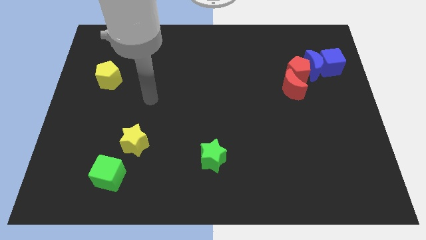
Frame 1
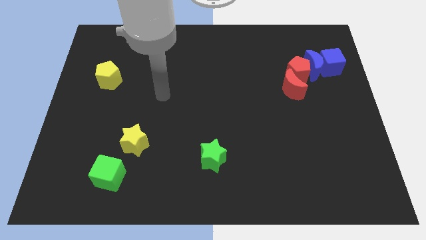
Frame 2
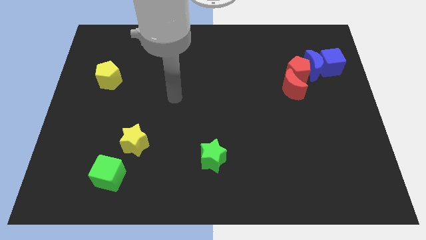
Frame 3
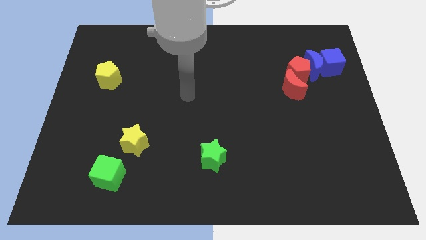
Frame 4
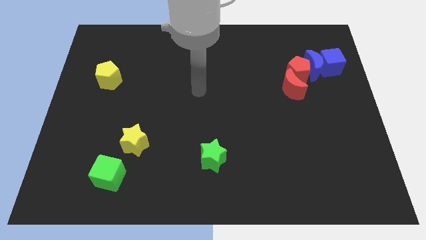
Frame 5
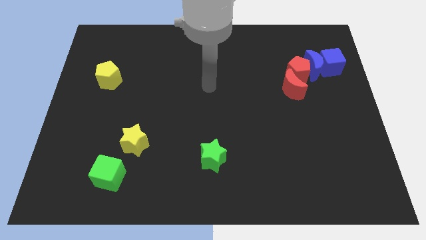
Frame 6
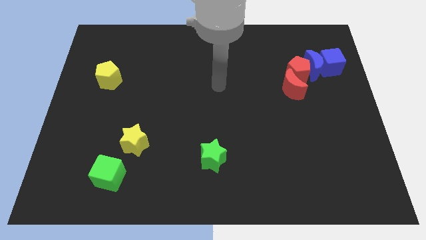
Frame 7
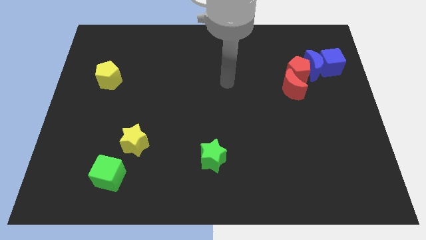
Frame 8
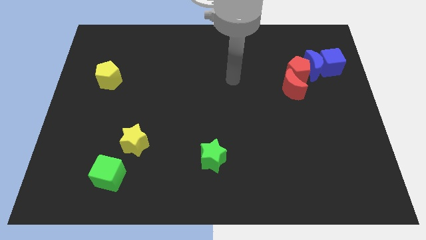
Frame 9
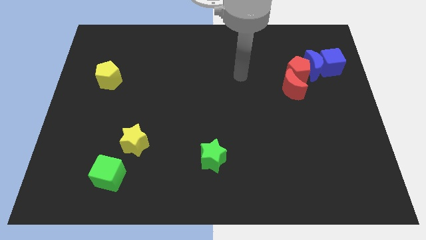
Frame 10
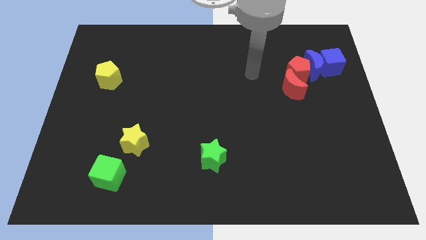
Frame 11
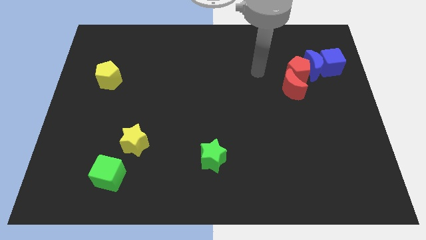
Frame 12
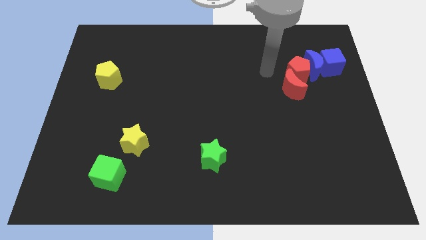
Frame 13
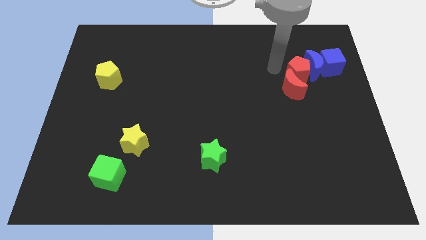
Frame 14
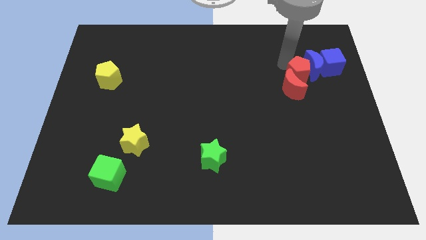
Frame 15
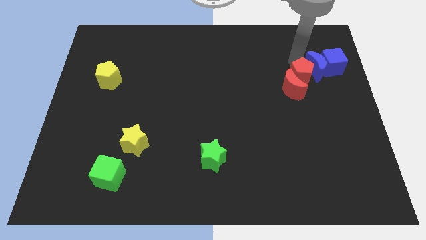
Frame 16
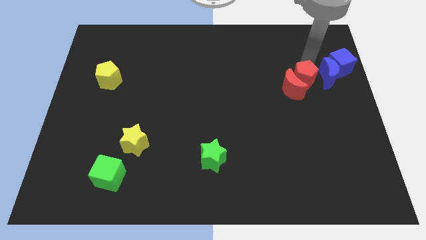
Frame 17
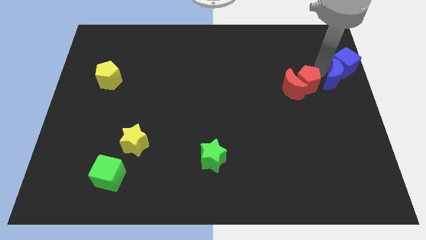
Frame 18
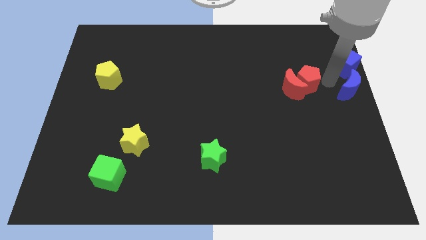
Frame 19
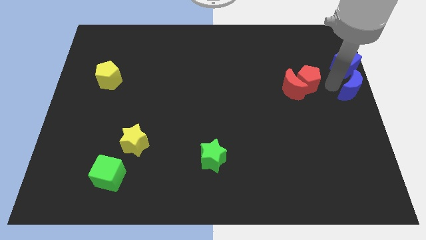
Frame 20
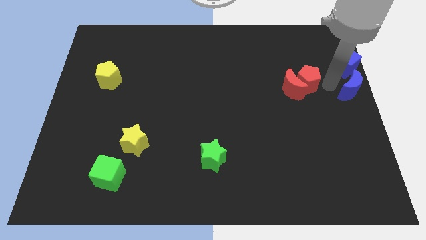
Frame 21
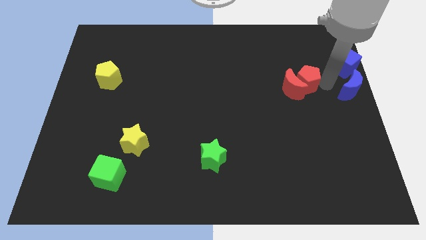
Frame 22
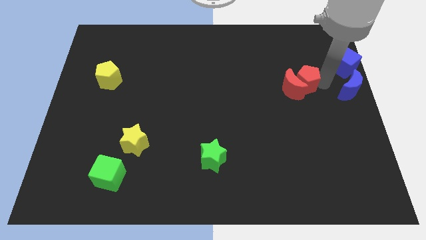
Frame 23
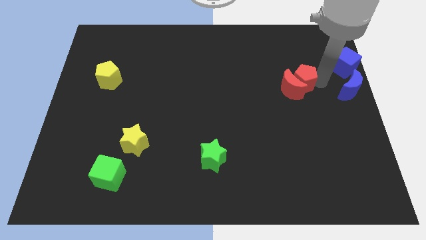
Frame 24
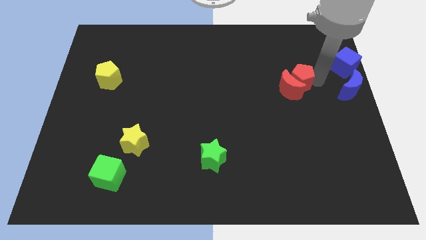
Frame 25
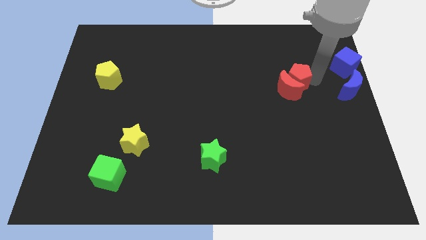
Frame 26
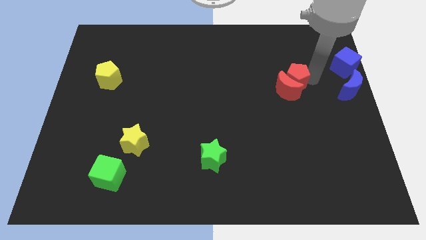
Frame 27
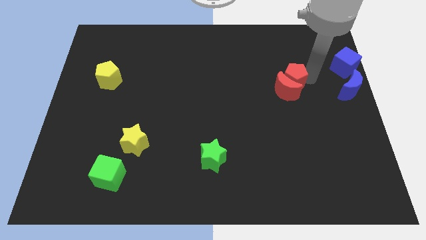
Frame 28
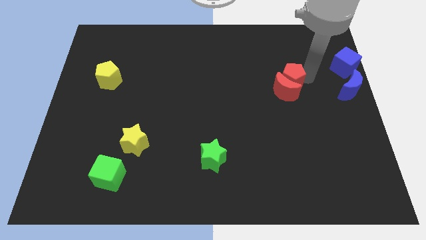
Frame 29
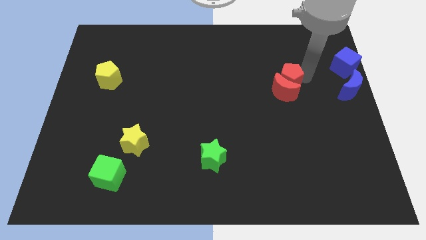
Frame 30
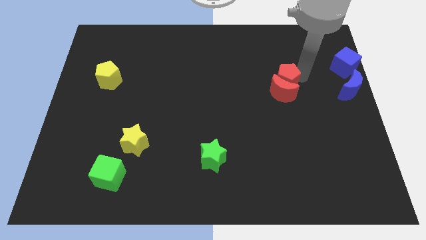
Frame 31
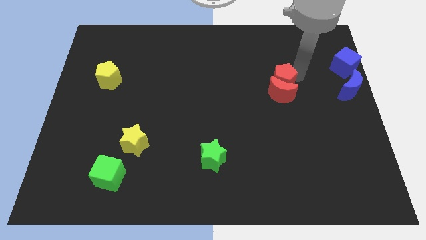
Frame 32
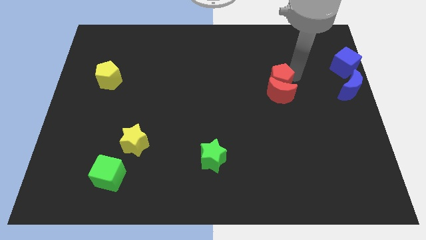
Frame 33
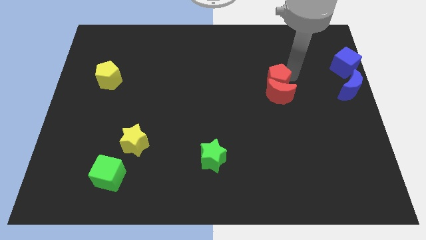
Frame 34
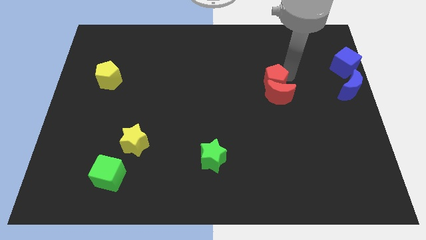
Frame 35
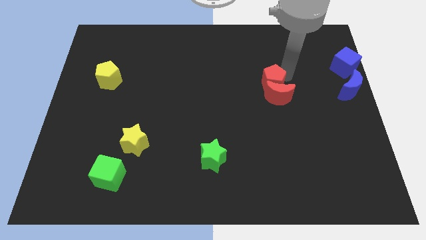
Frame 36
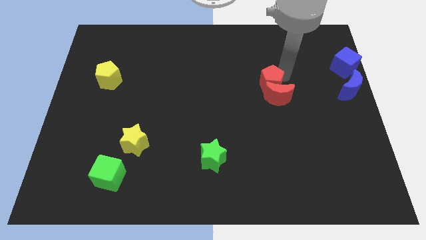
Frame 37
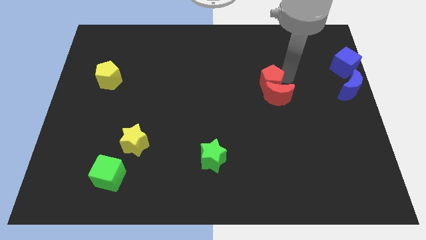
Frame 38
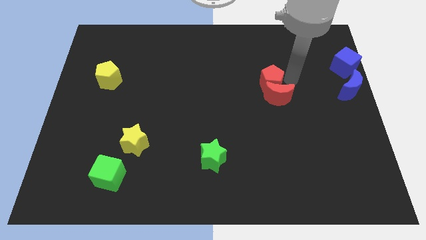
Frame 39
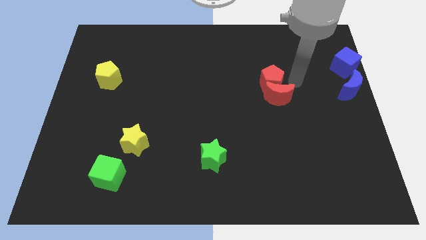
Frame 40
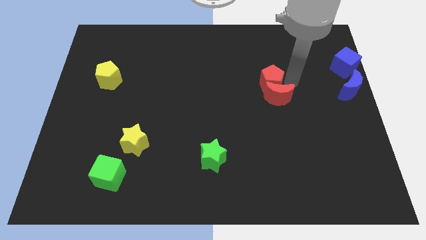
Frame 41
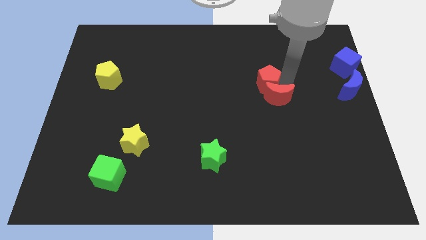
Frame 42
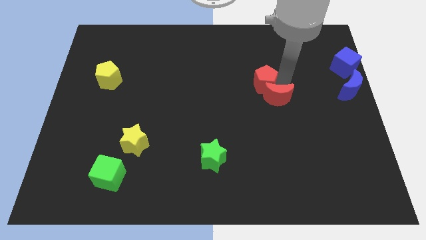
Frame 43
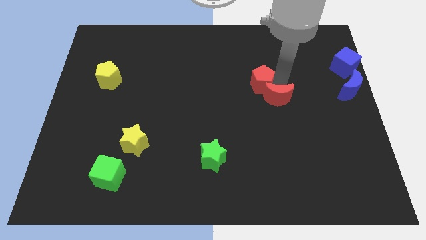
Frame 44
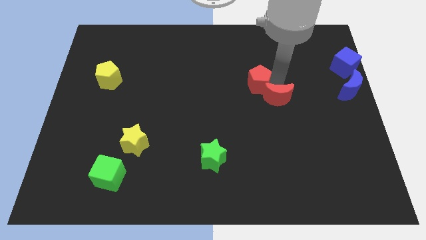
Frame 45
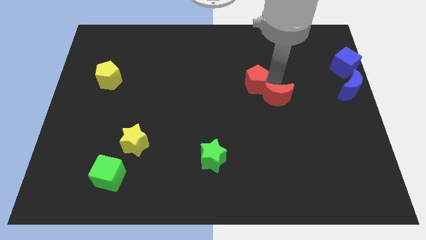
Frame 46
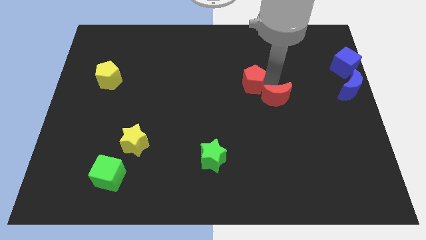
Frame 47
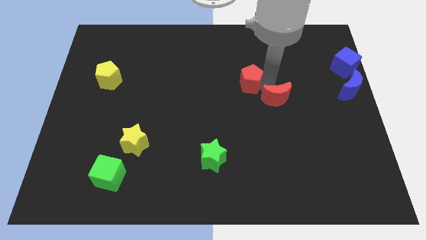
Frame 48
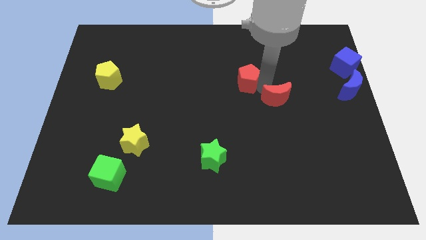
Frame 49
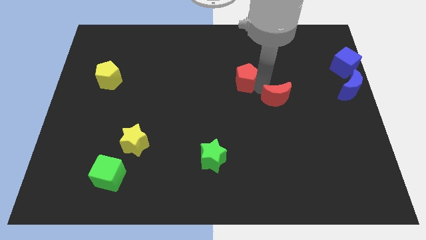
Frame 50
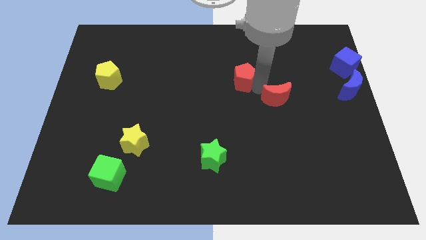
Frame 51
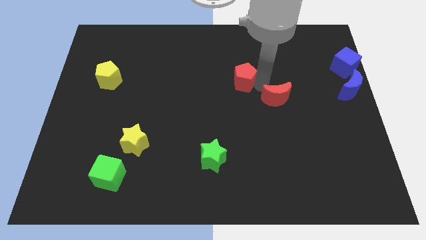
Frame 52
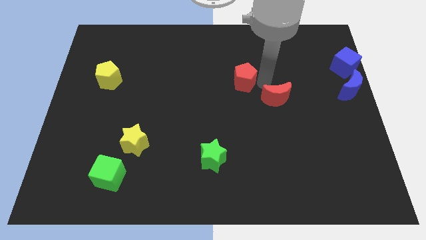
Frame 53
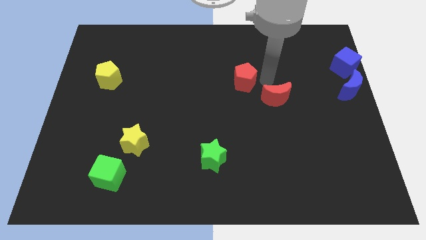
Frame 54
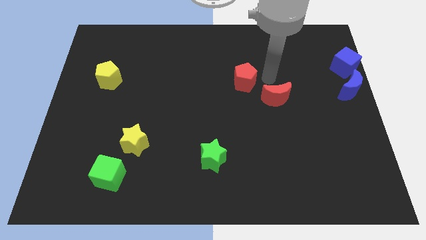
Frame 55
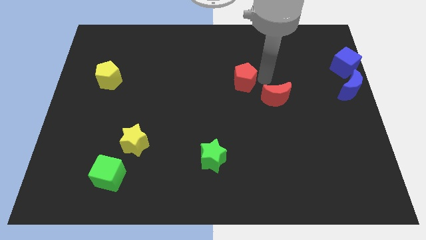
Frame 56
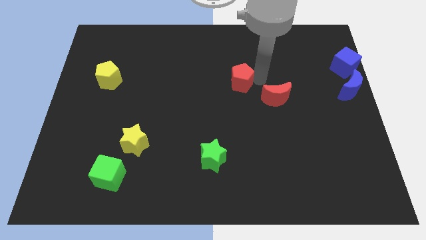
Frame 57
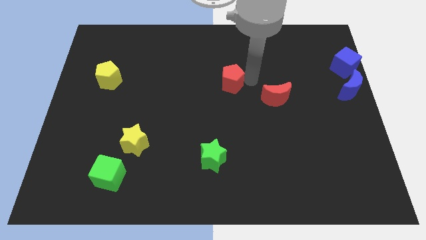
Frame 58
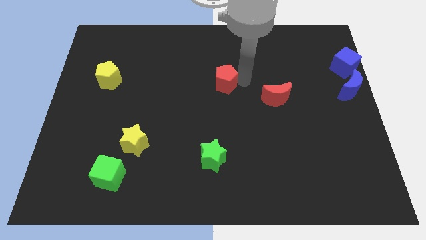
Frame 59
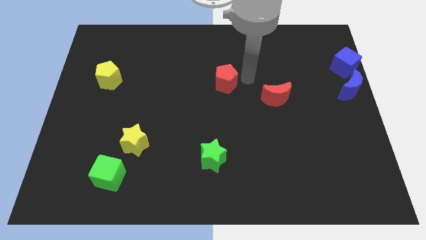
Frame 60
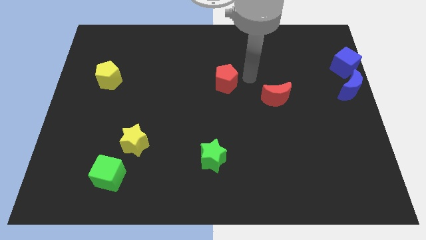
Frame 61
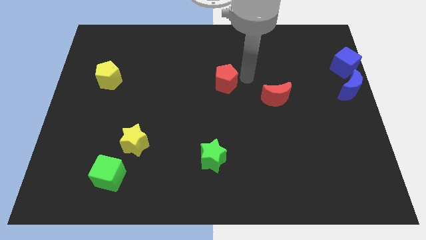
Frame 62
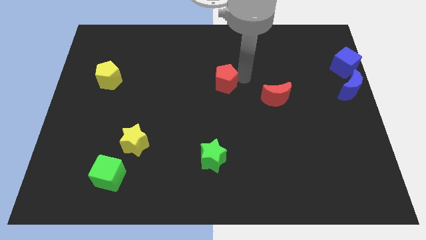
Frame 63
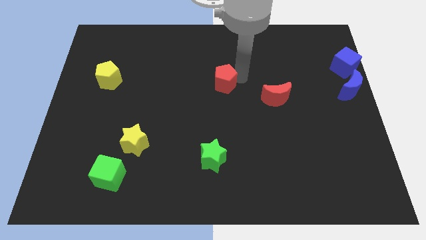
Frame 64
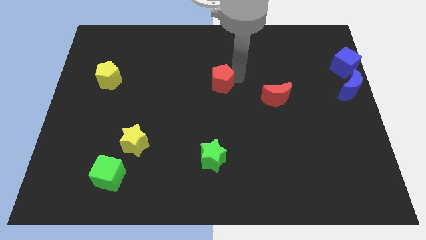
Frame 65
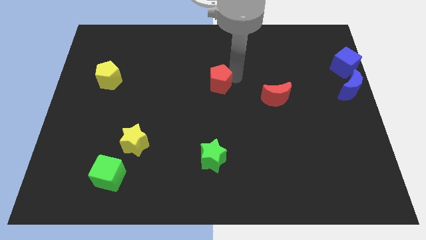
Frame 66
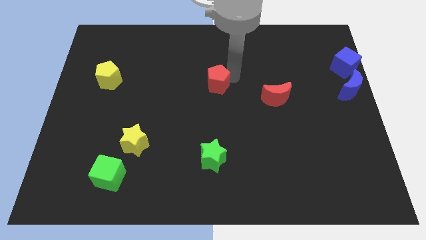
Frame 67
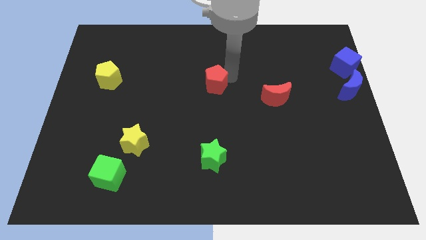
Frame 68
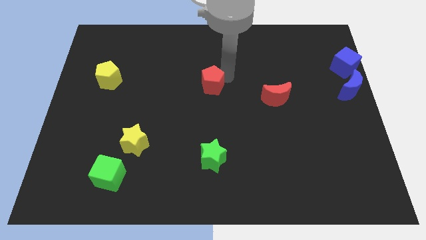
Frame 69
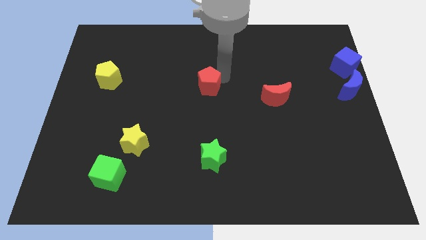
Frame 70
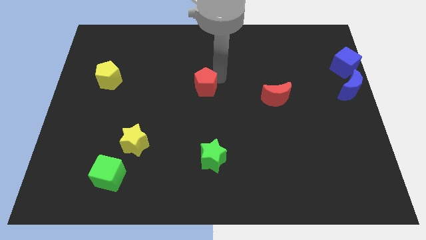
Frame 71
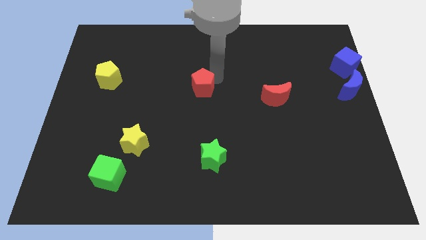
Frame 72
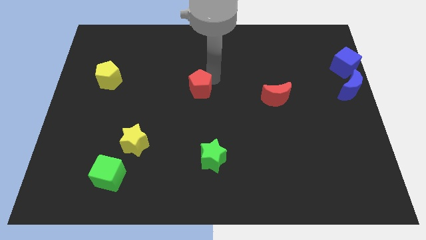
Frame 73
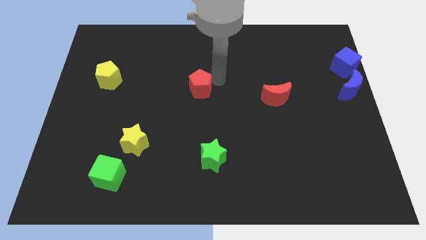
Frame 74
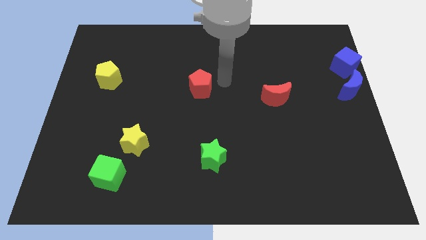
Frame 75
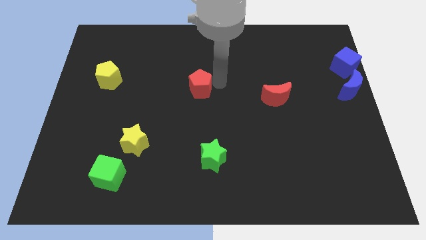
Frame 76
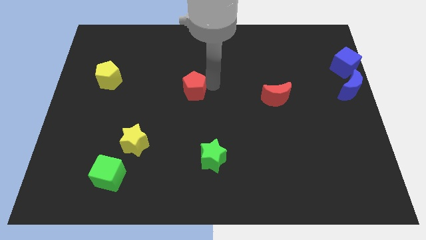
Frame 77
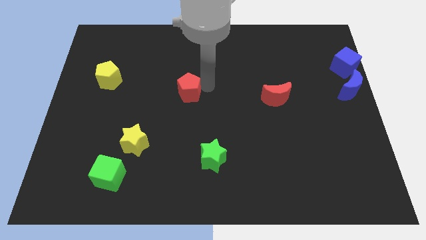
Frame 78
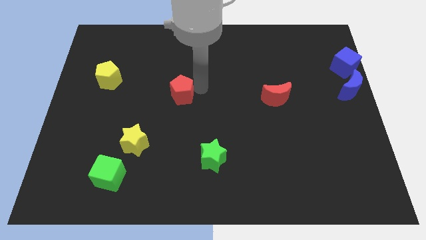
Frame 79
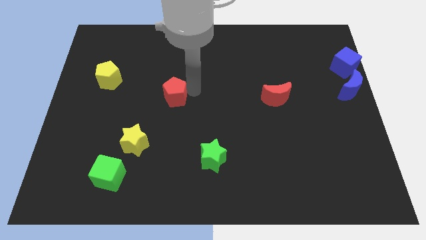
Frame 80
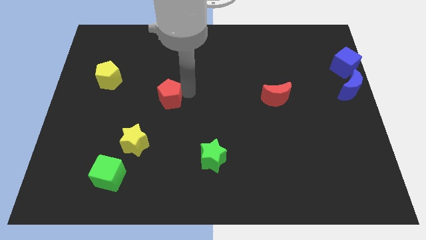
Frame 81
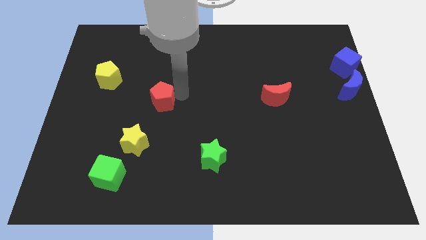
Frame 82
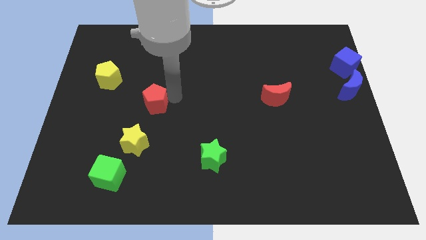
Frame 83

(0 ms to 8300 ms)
push the red pentagon to the top side of the yellow star
